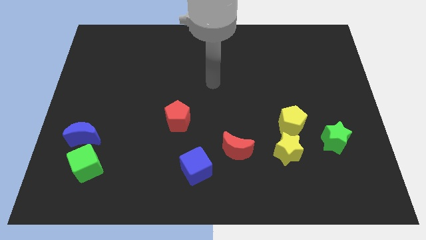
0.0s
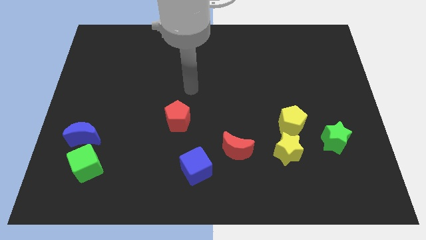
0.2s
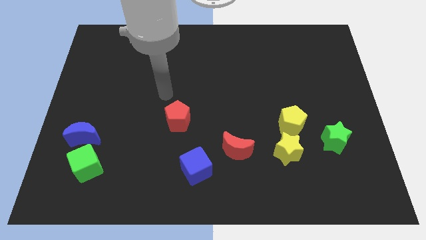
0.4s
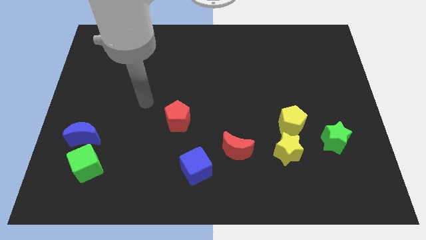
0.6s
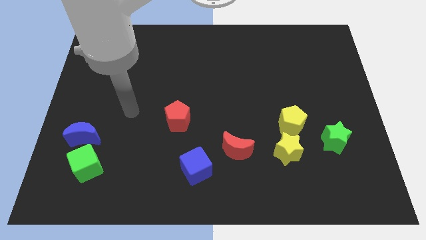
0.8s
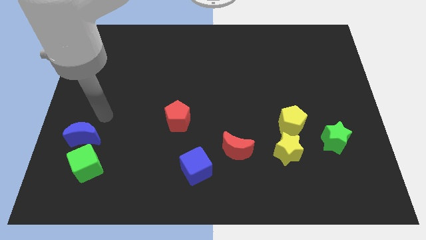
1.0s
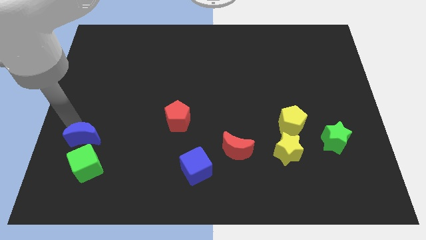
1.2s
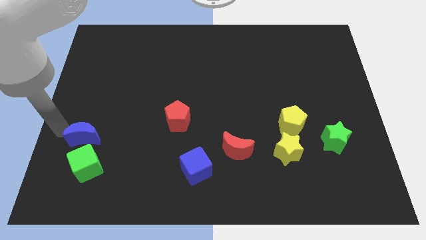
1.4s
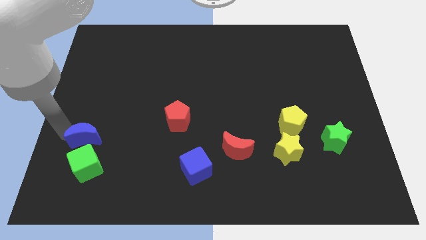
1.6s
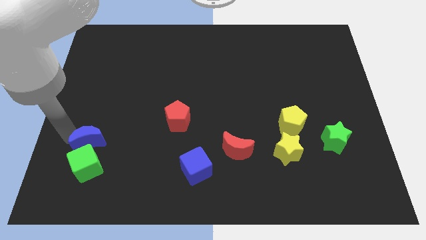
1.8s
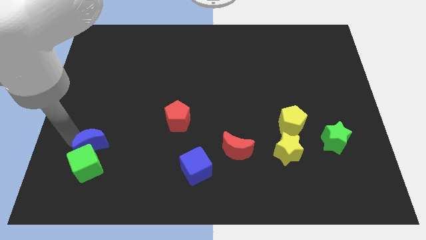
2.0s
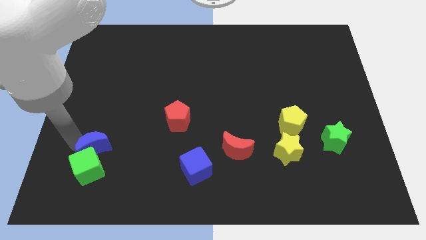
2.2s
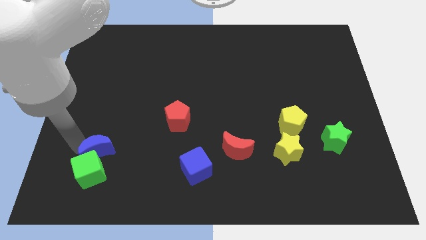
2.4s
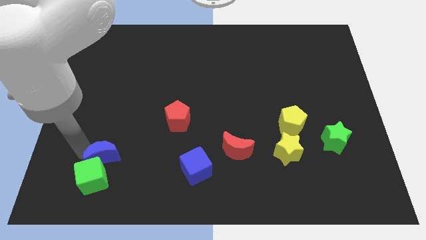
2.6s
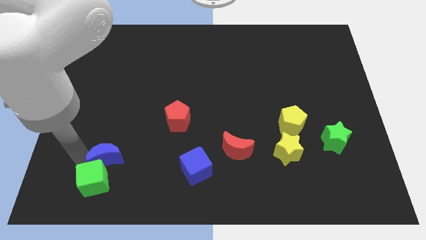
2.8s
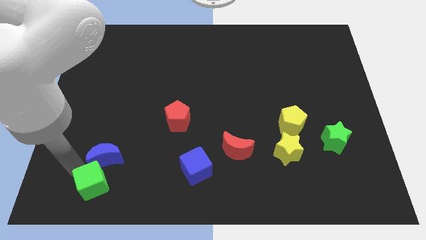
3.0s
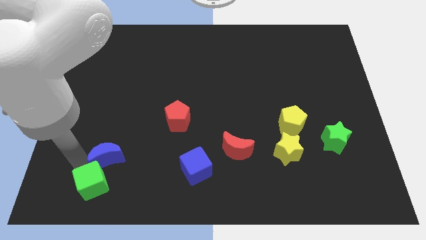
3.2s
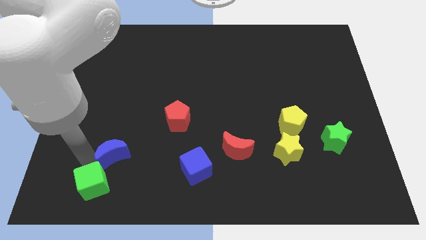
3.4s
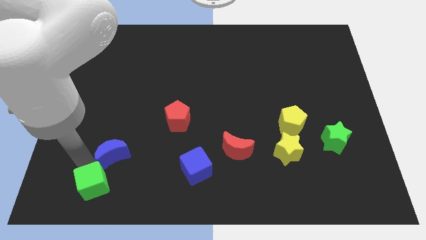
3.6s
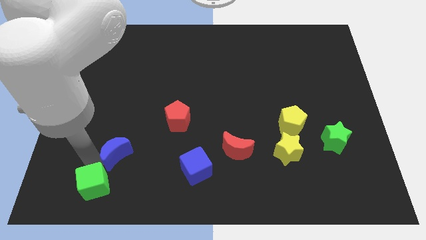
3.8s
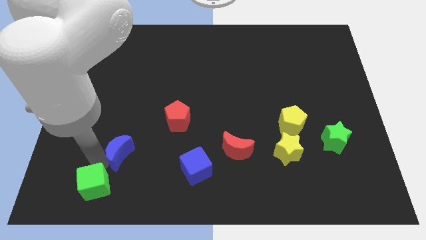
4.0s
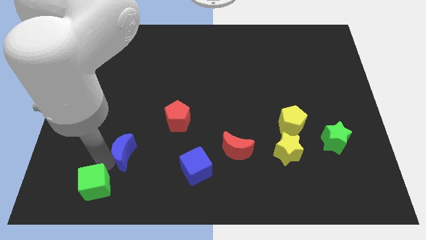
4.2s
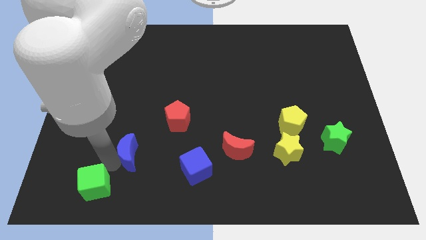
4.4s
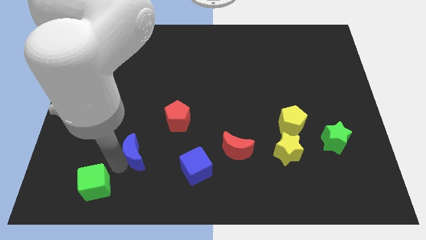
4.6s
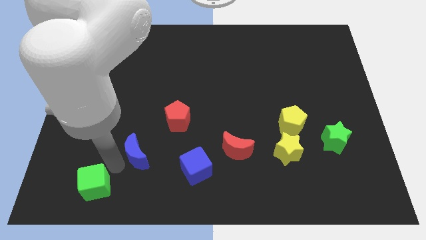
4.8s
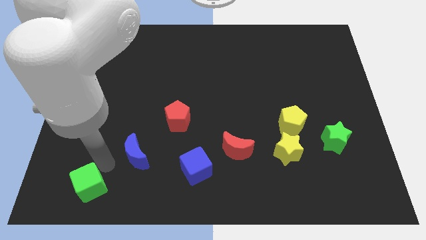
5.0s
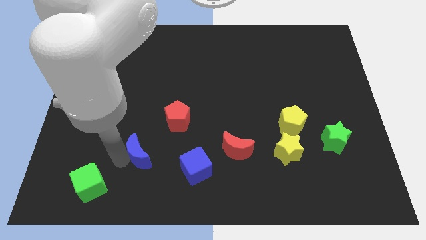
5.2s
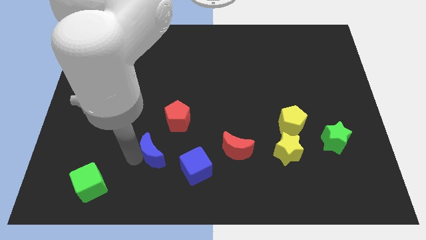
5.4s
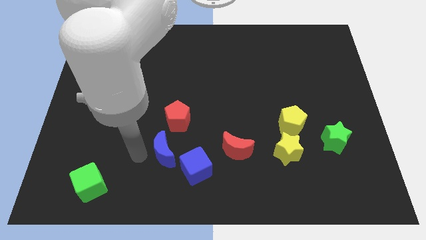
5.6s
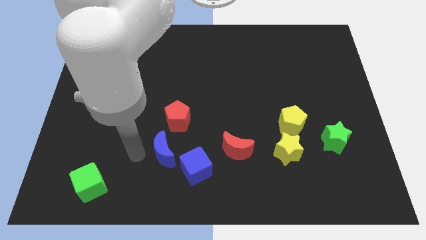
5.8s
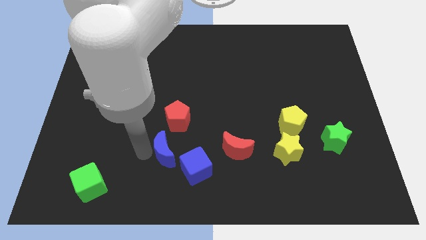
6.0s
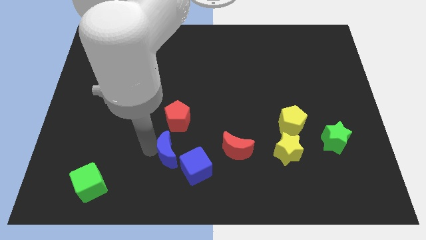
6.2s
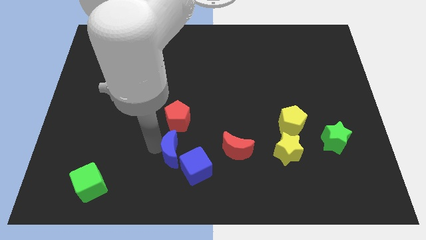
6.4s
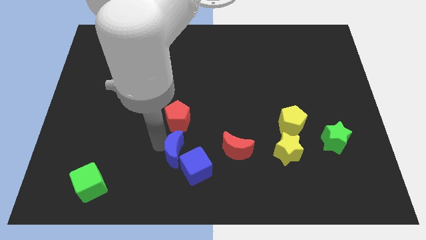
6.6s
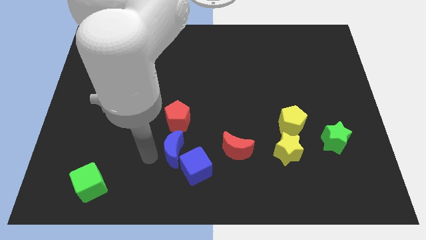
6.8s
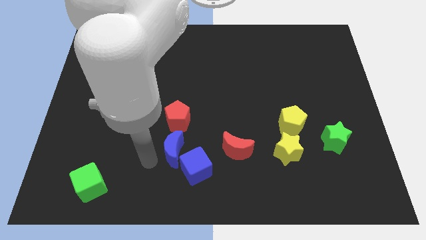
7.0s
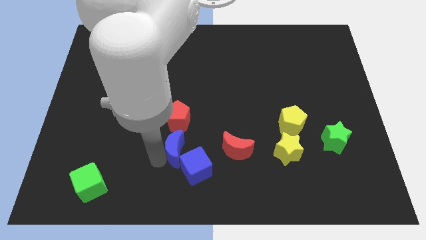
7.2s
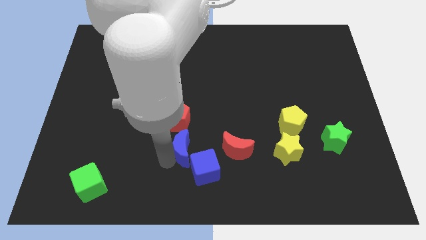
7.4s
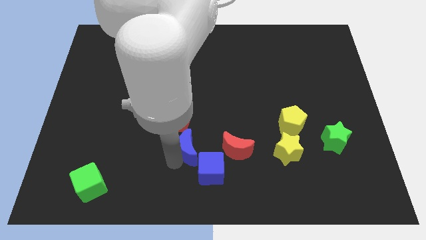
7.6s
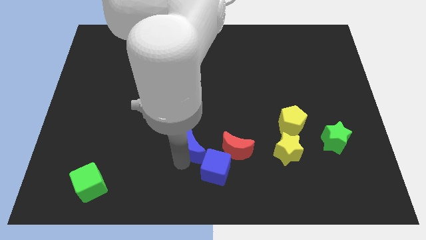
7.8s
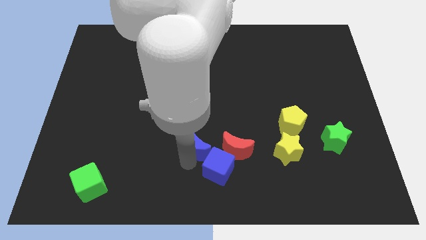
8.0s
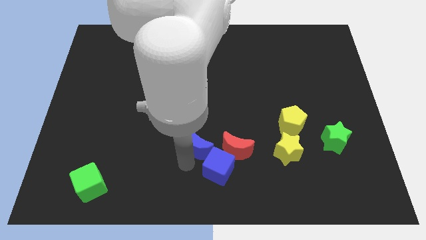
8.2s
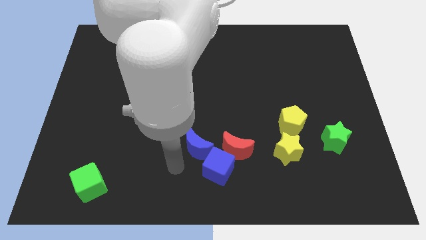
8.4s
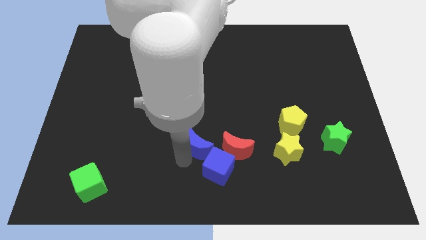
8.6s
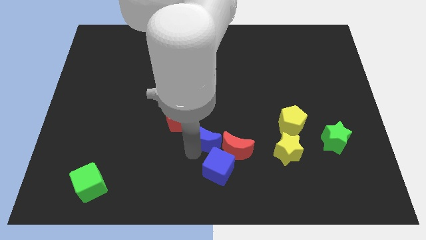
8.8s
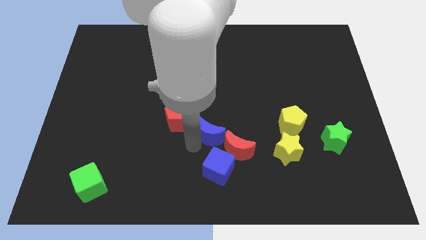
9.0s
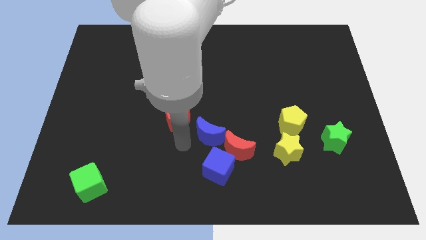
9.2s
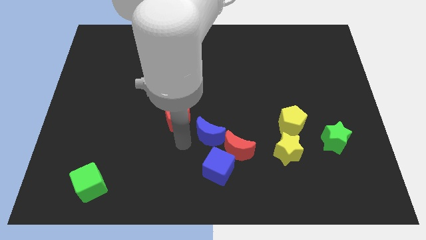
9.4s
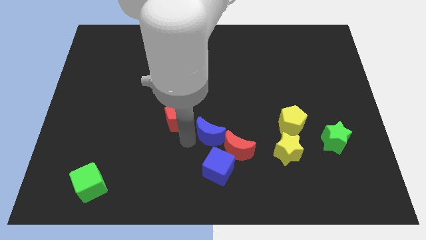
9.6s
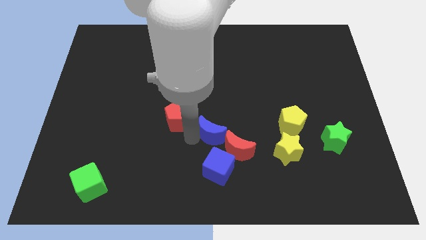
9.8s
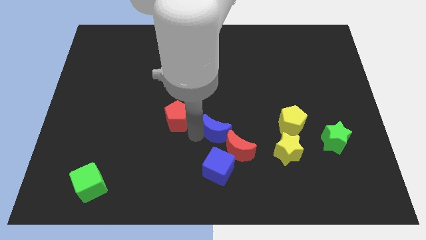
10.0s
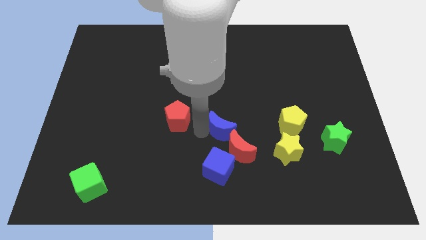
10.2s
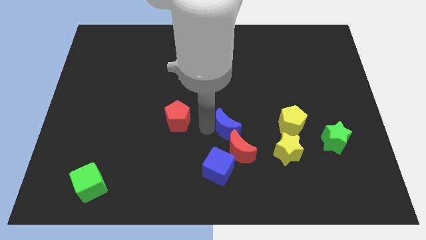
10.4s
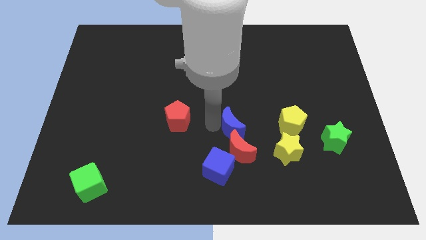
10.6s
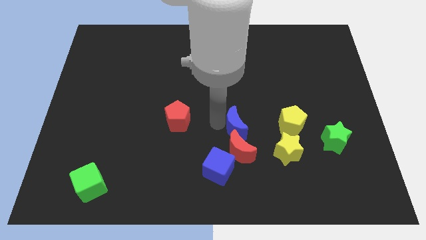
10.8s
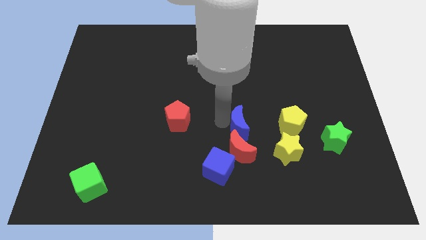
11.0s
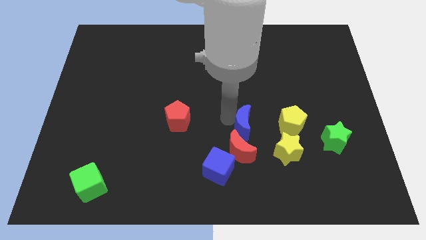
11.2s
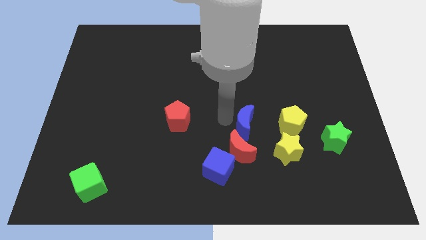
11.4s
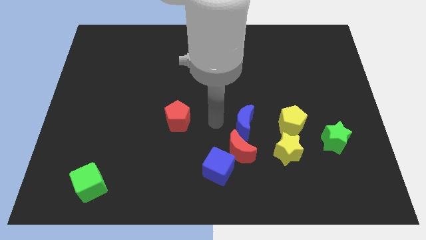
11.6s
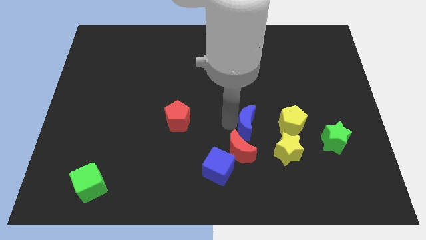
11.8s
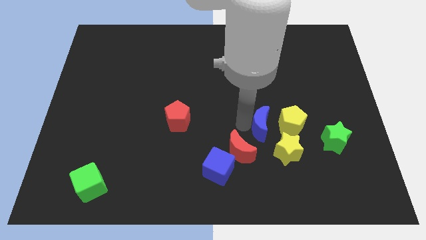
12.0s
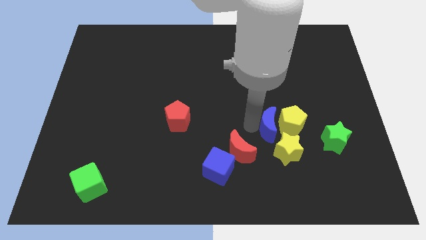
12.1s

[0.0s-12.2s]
push the blue moon to the yellow pentagon
